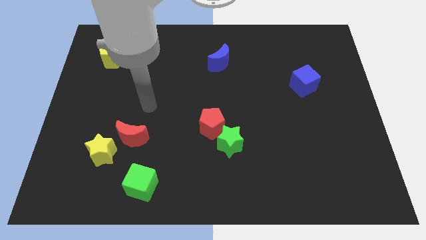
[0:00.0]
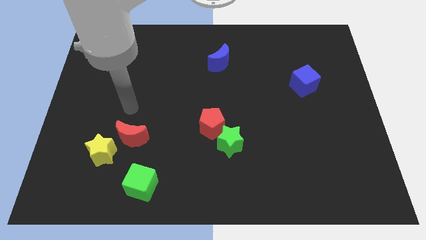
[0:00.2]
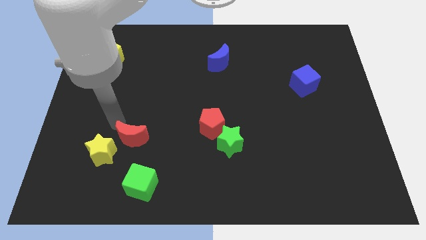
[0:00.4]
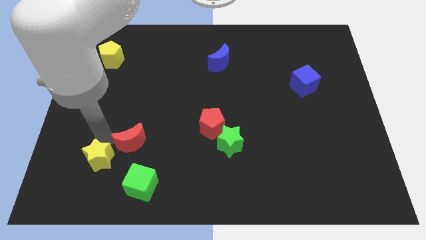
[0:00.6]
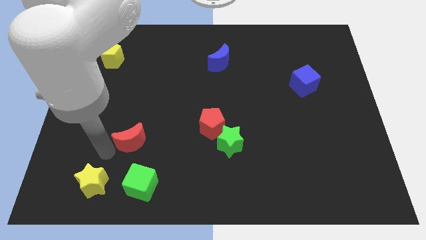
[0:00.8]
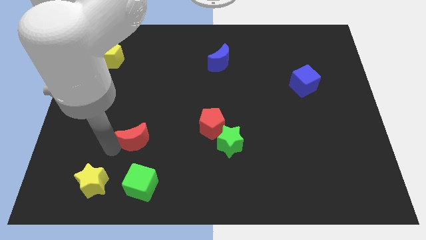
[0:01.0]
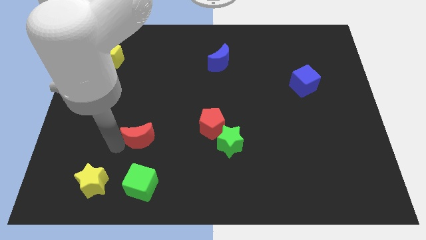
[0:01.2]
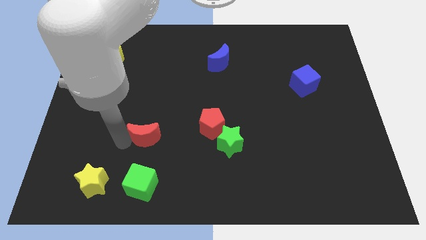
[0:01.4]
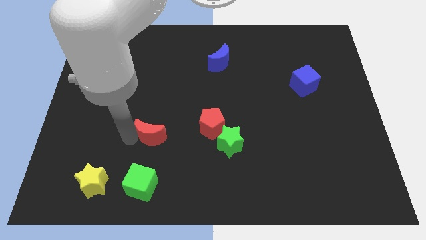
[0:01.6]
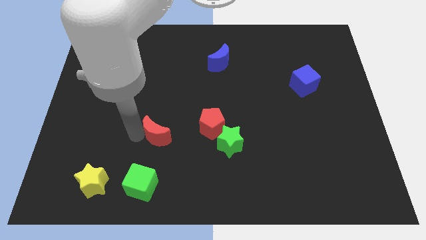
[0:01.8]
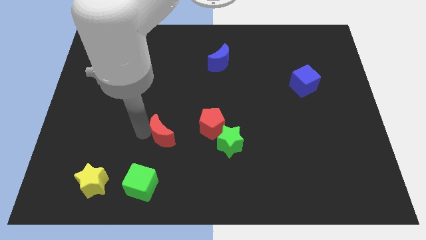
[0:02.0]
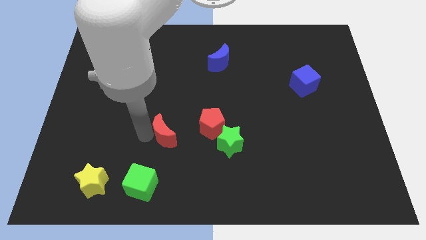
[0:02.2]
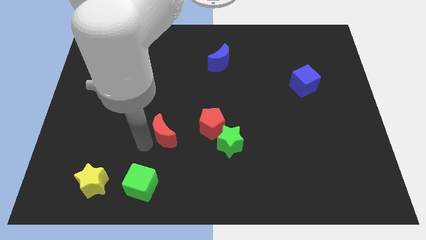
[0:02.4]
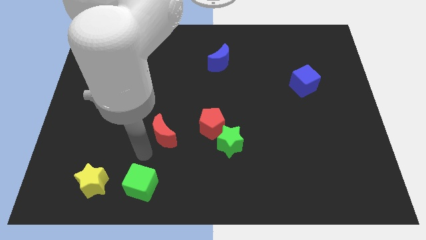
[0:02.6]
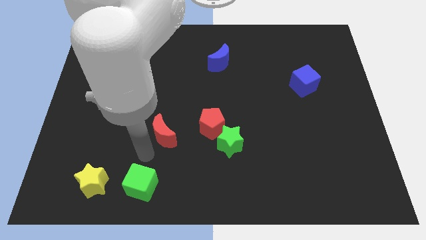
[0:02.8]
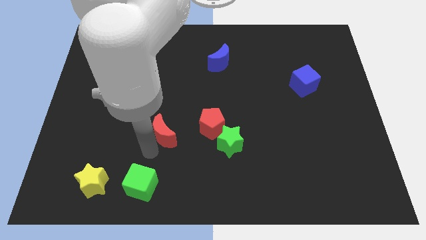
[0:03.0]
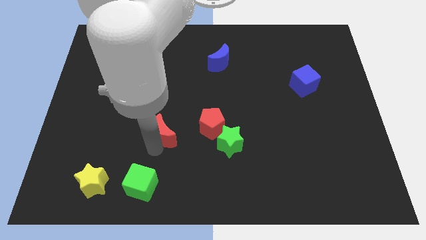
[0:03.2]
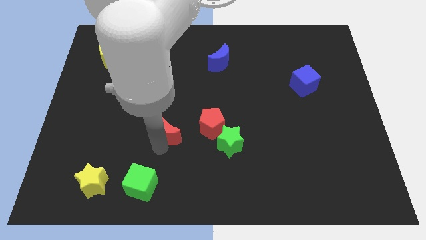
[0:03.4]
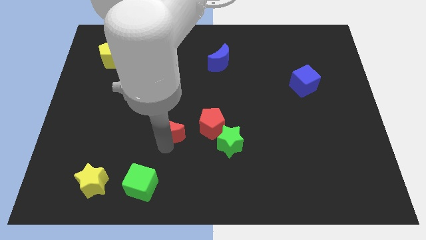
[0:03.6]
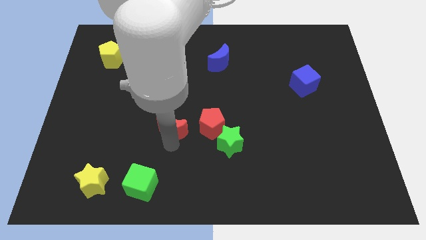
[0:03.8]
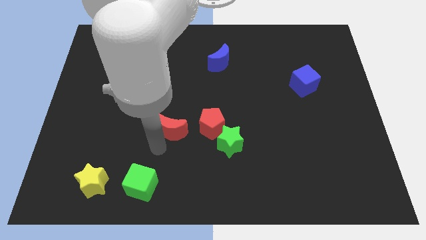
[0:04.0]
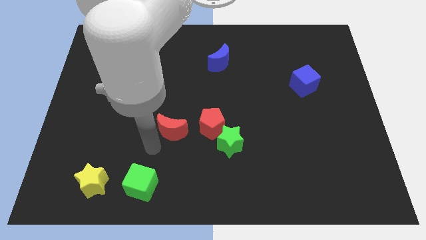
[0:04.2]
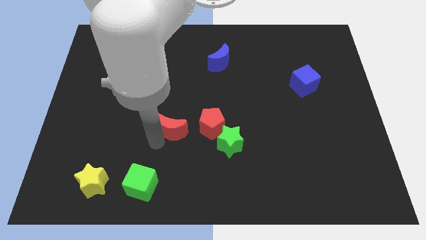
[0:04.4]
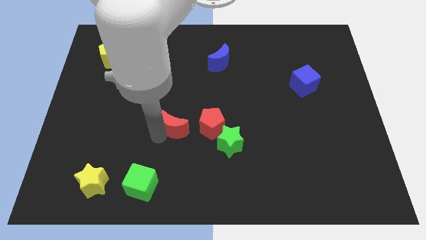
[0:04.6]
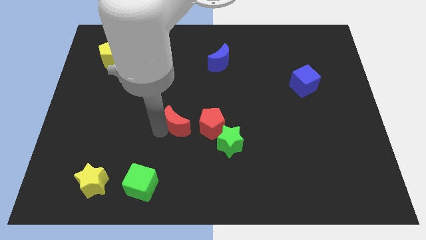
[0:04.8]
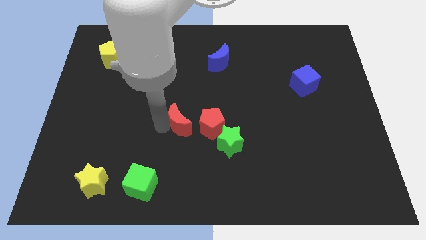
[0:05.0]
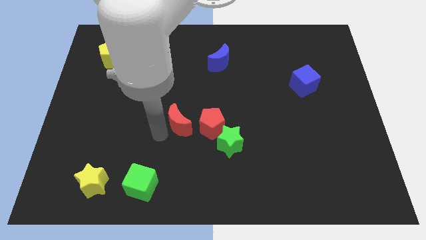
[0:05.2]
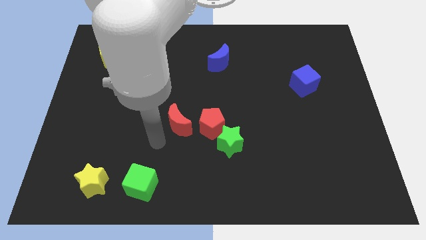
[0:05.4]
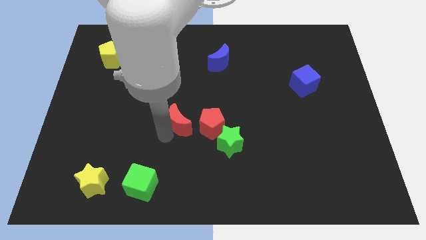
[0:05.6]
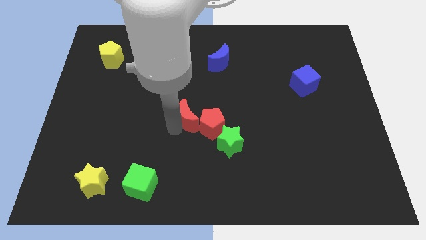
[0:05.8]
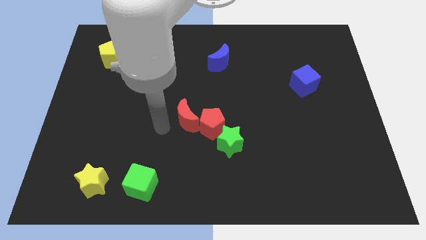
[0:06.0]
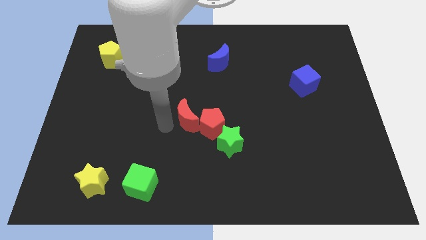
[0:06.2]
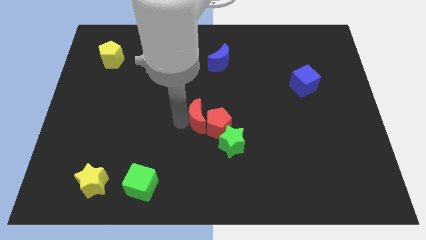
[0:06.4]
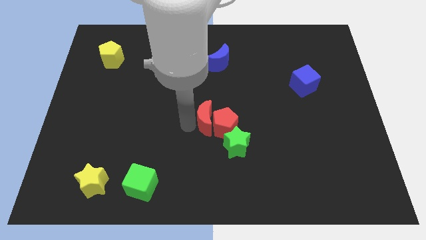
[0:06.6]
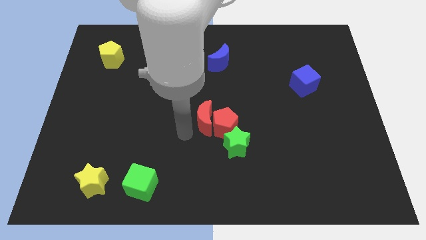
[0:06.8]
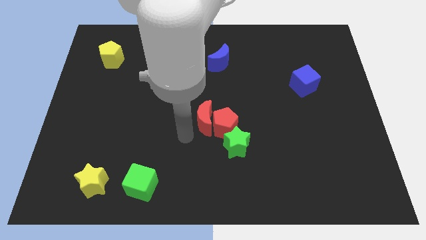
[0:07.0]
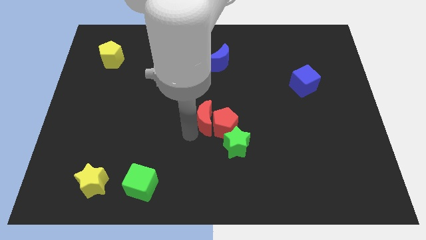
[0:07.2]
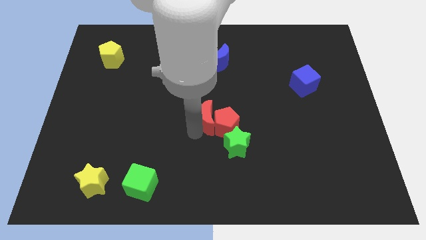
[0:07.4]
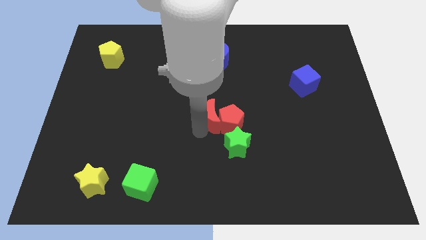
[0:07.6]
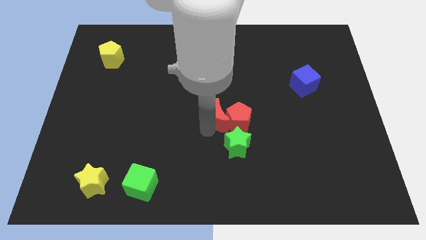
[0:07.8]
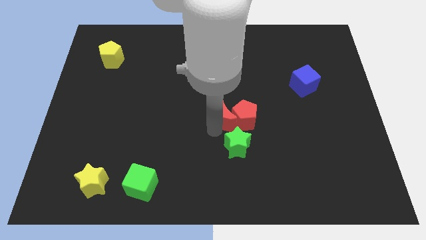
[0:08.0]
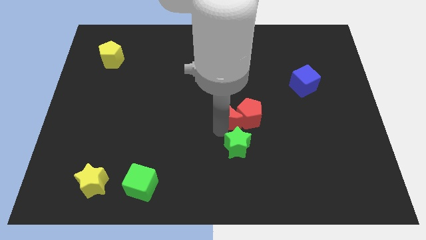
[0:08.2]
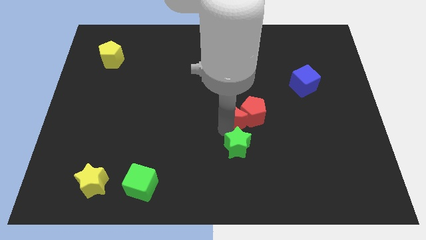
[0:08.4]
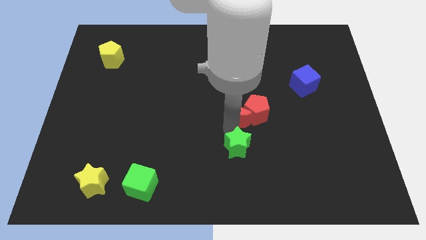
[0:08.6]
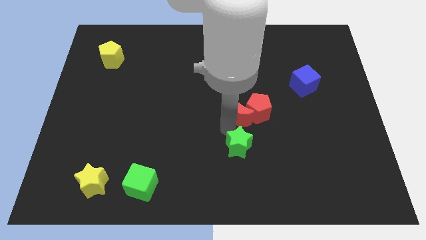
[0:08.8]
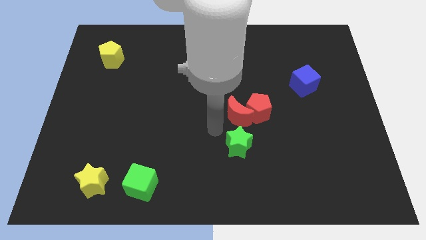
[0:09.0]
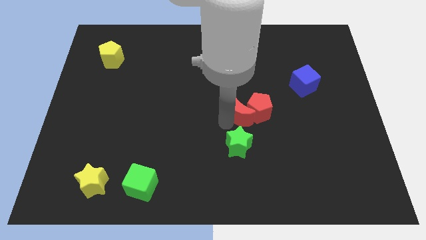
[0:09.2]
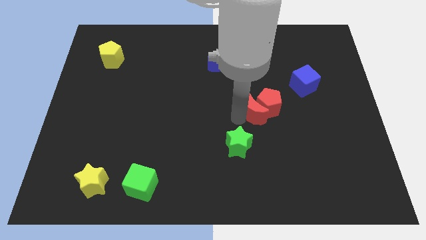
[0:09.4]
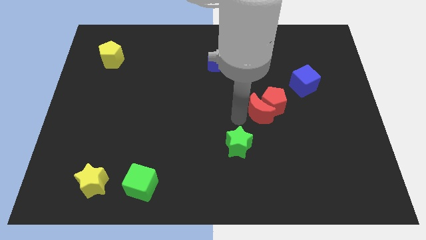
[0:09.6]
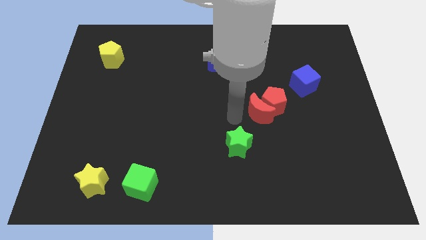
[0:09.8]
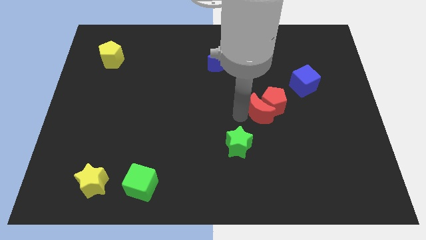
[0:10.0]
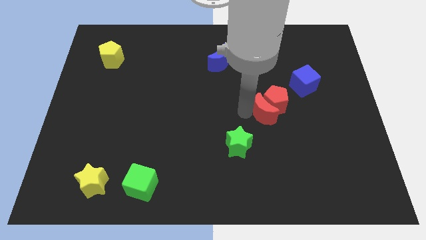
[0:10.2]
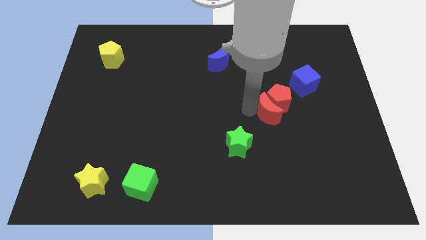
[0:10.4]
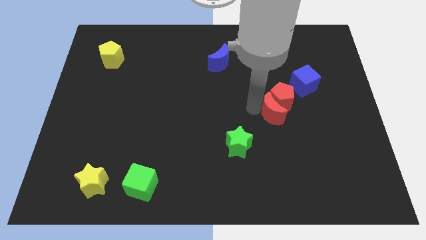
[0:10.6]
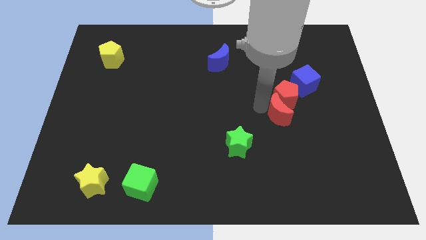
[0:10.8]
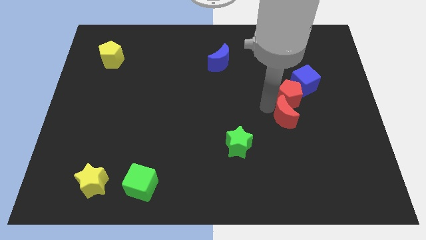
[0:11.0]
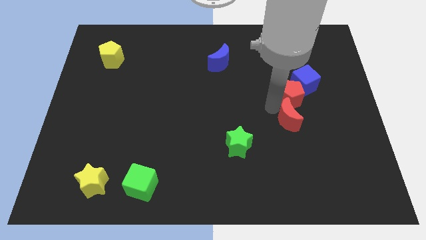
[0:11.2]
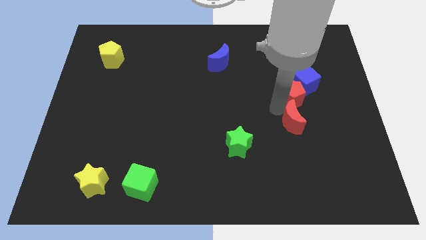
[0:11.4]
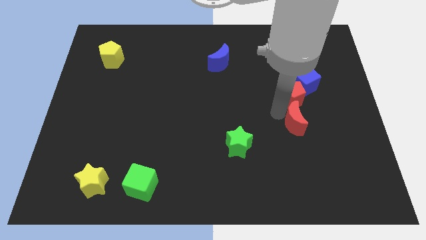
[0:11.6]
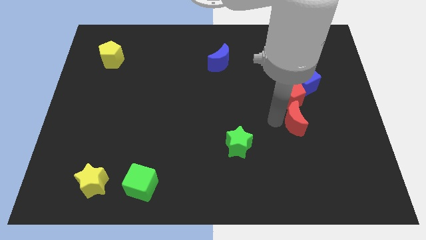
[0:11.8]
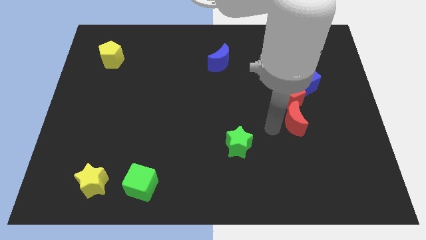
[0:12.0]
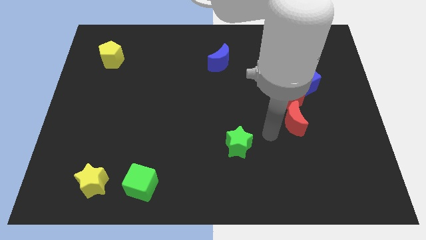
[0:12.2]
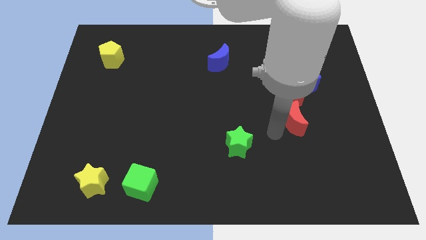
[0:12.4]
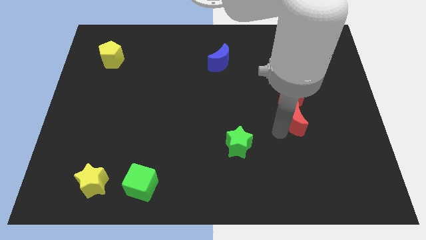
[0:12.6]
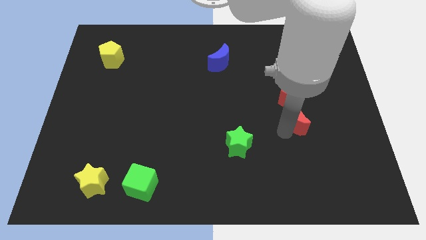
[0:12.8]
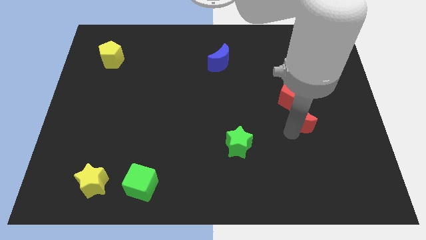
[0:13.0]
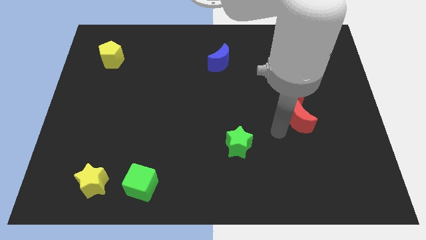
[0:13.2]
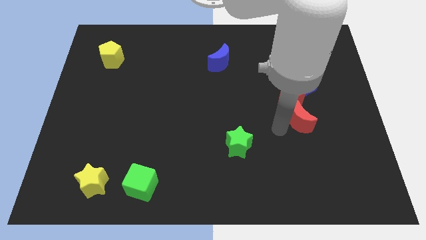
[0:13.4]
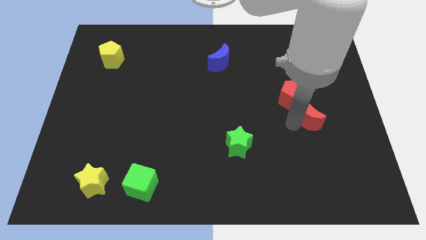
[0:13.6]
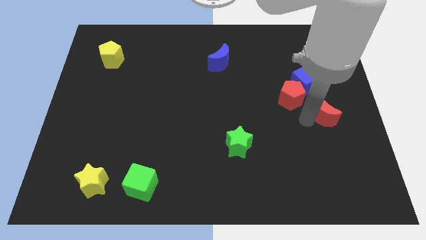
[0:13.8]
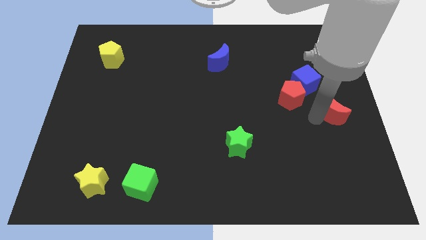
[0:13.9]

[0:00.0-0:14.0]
slide the red moon to the right side
